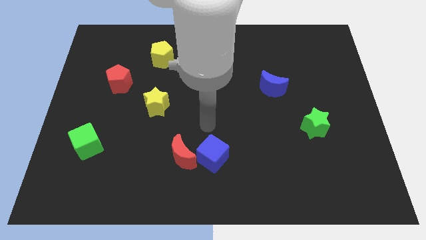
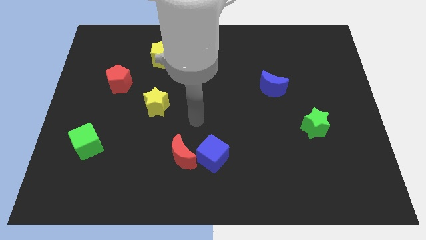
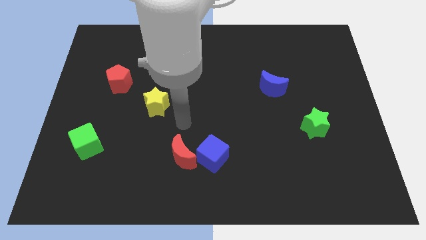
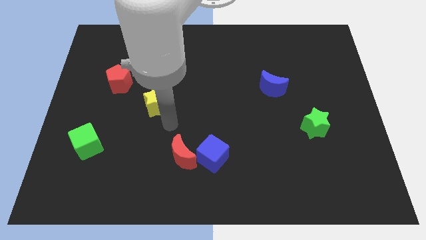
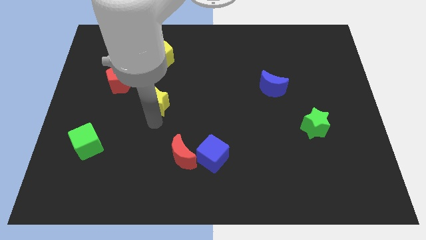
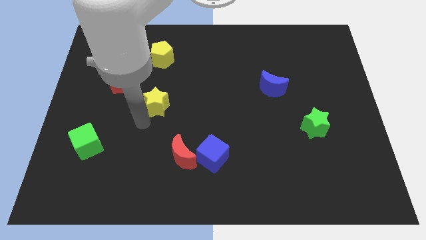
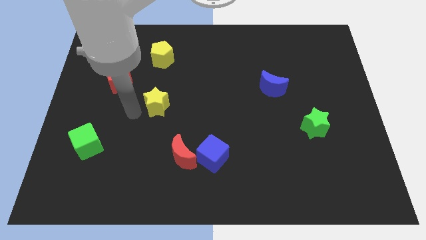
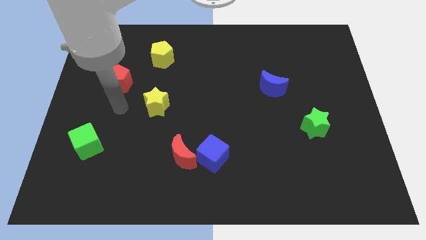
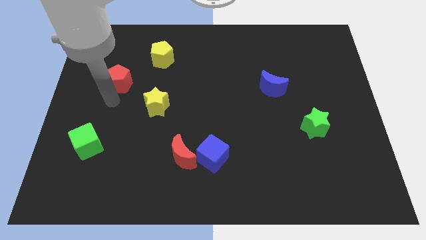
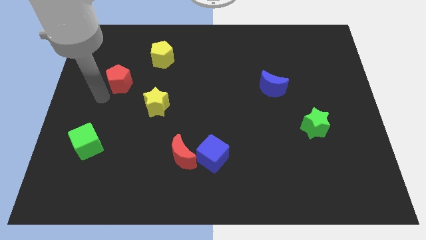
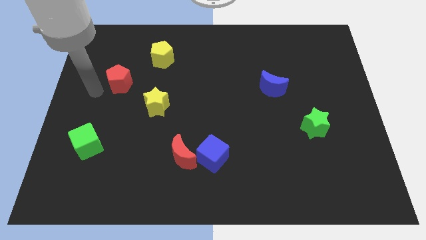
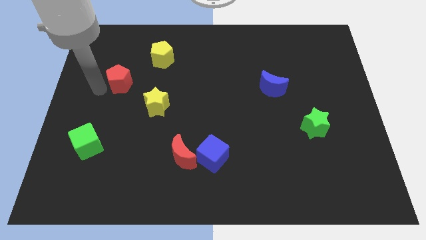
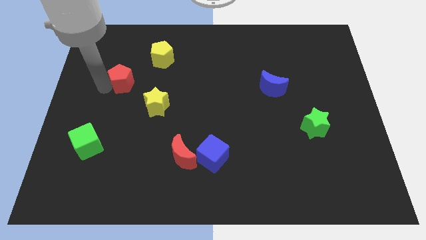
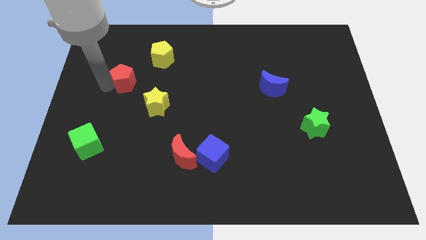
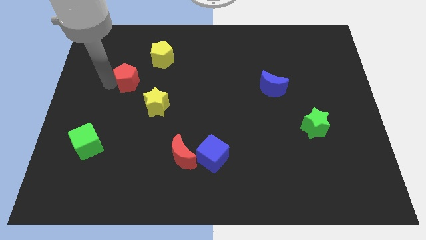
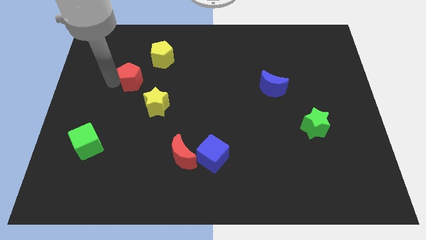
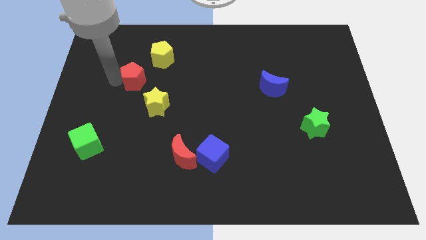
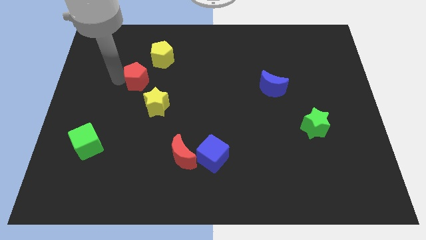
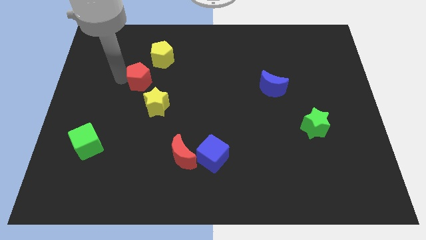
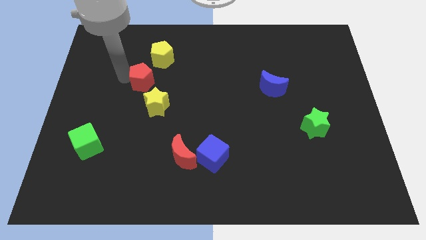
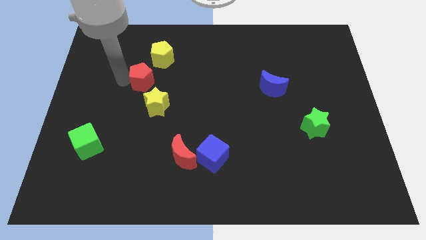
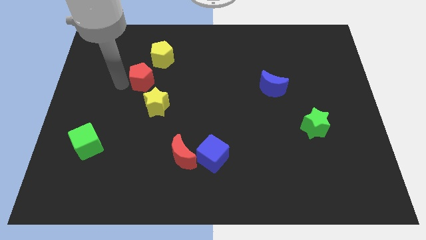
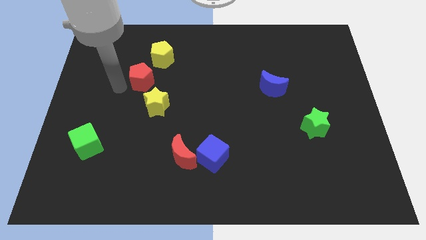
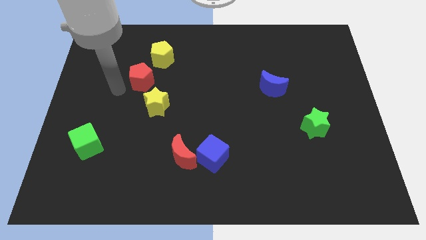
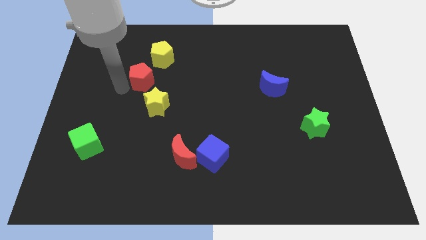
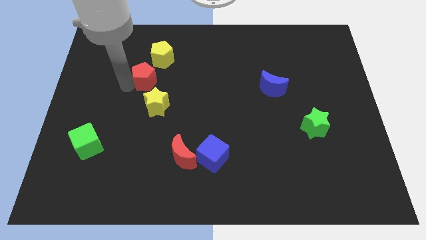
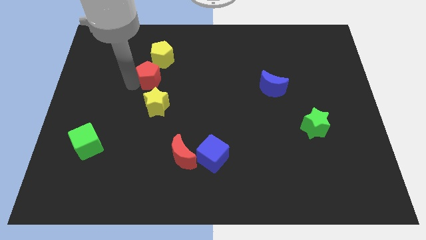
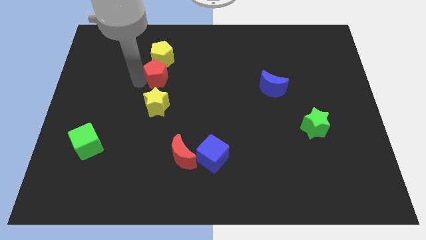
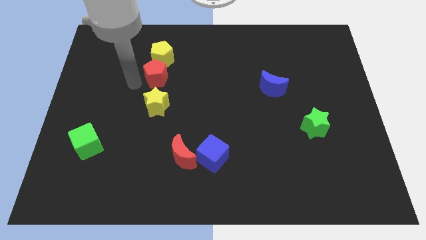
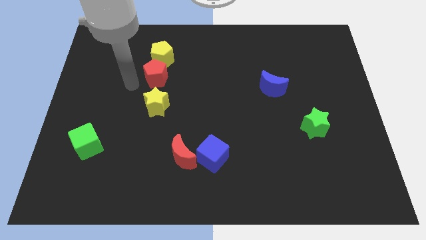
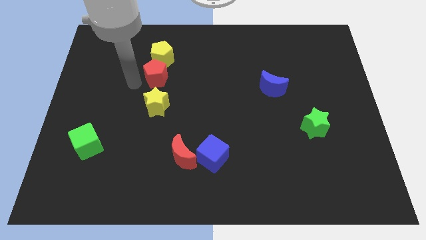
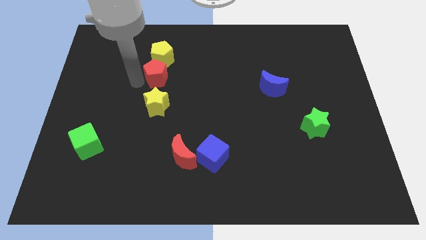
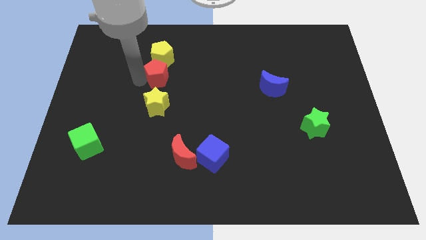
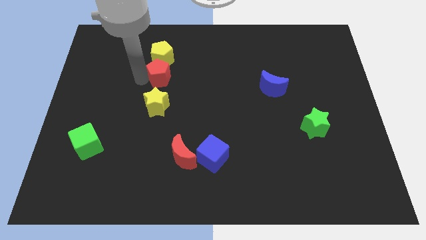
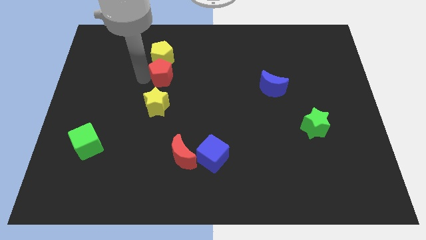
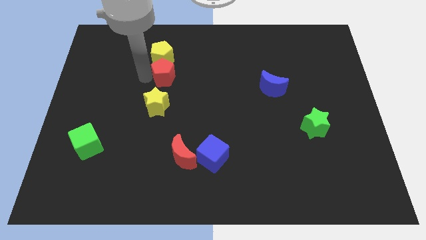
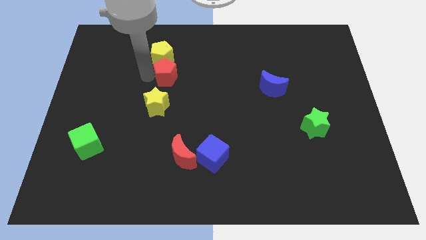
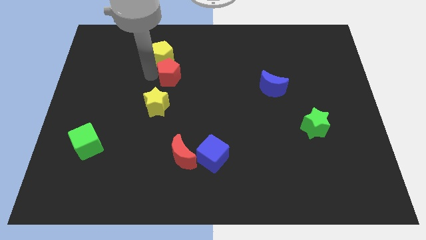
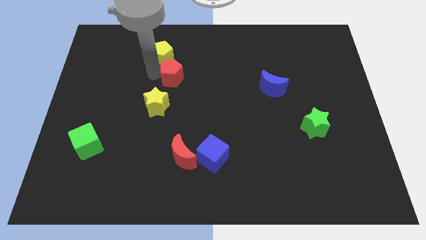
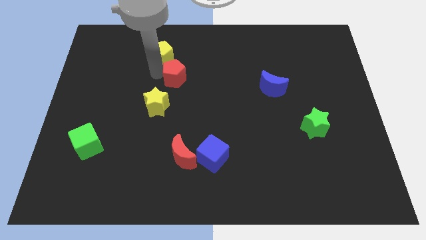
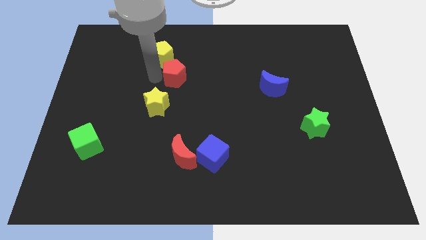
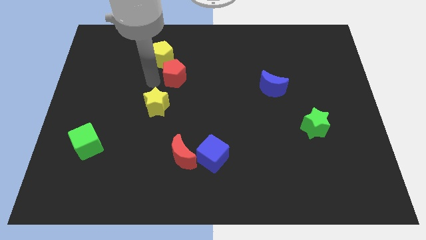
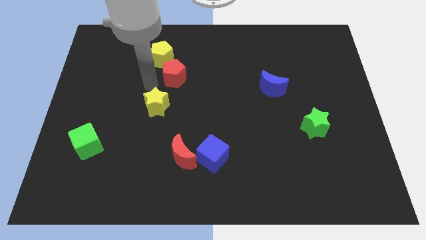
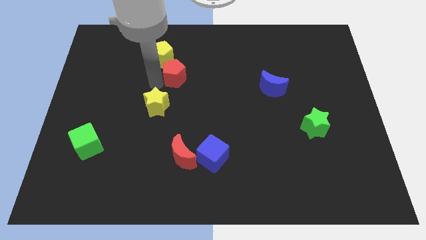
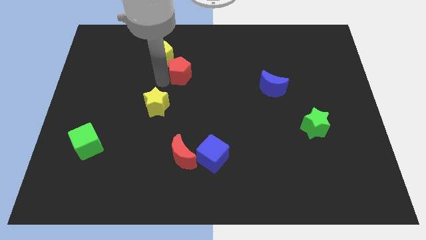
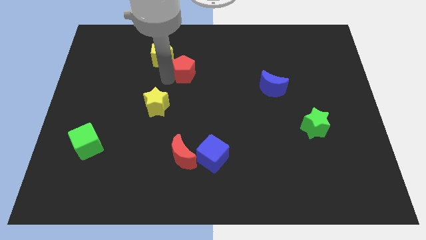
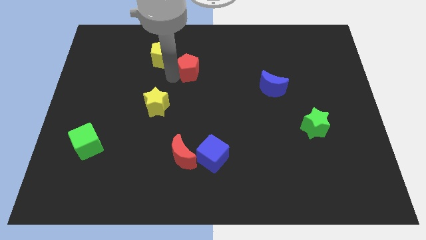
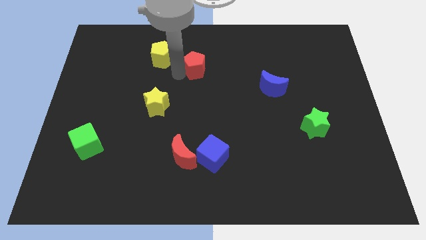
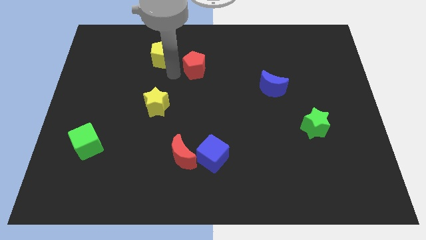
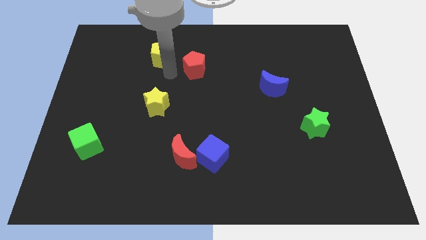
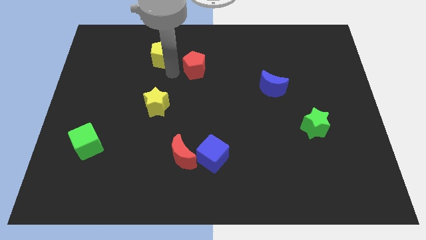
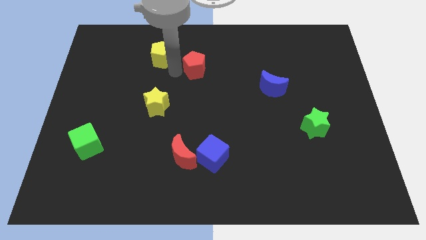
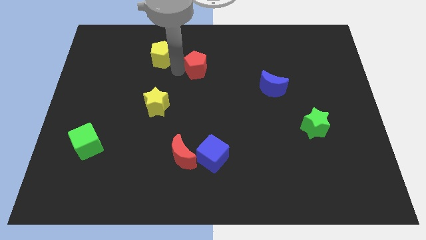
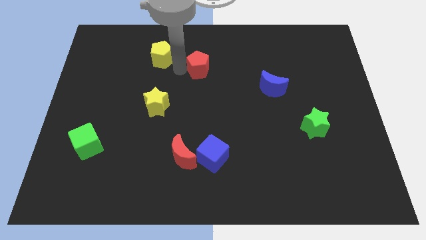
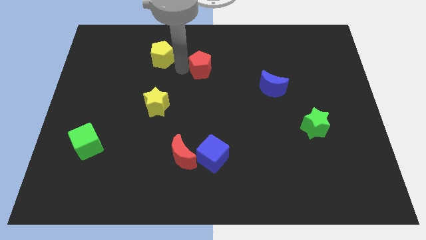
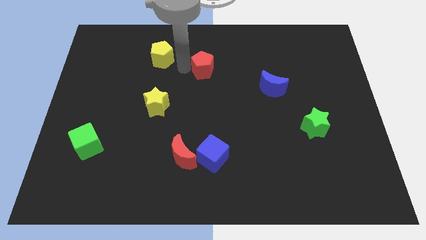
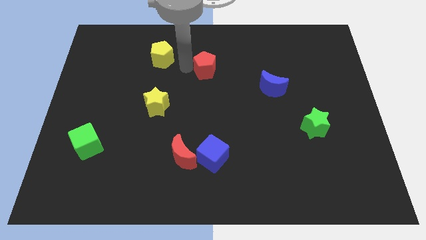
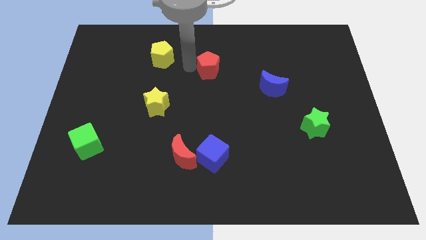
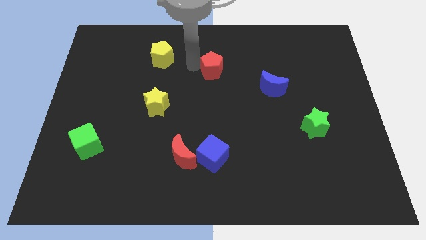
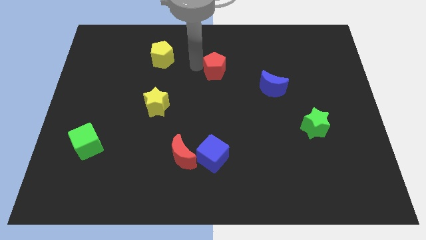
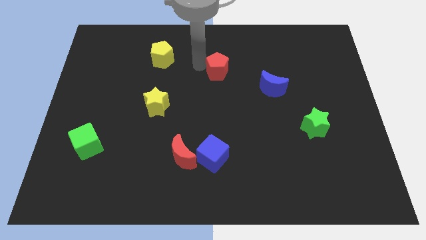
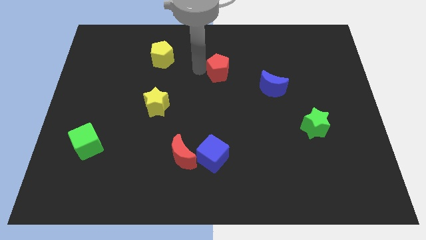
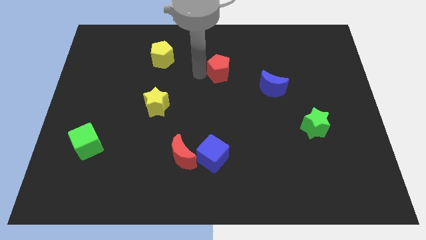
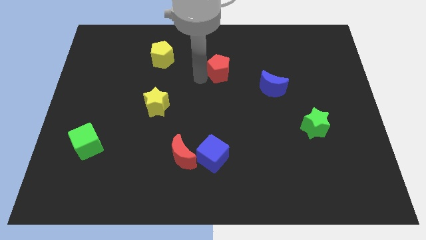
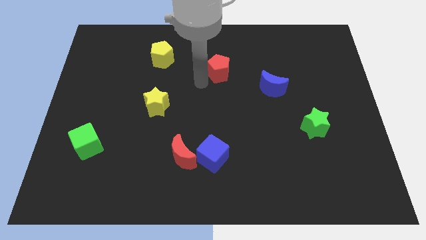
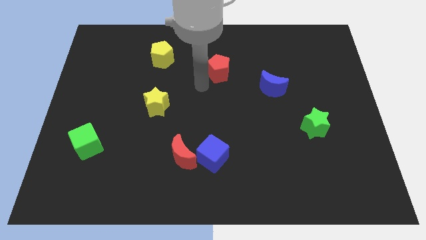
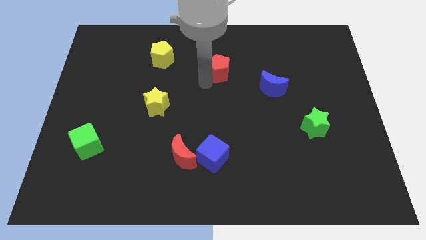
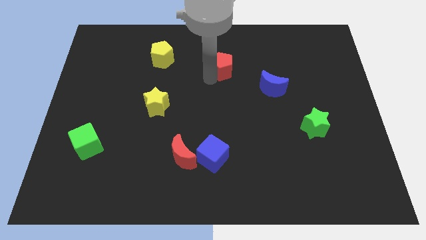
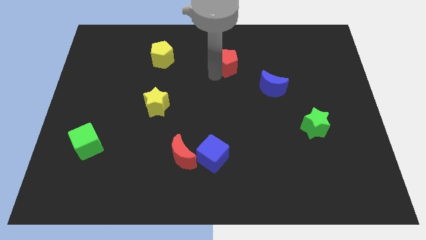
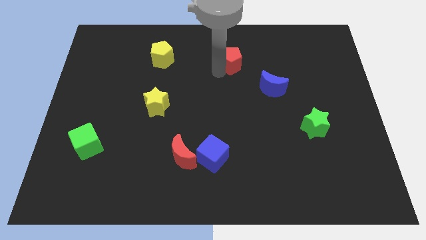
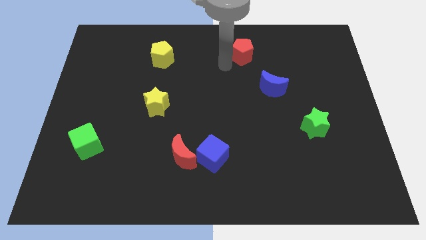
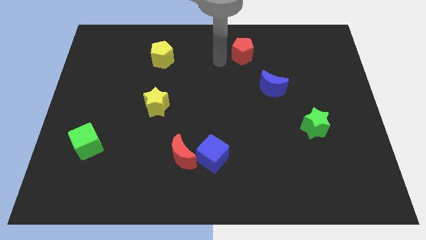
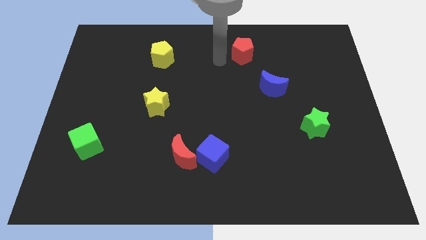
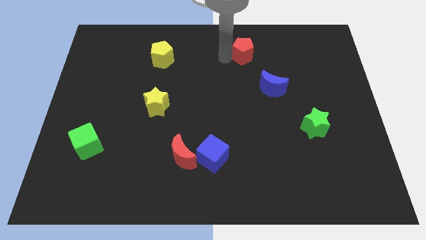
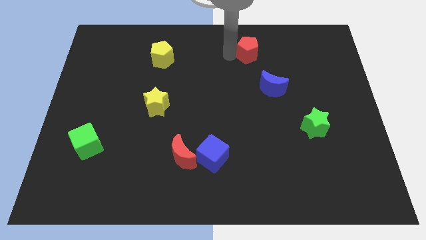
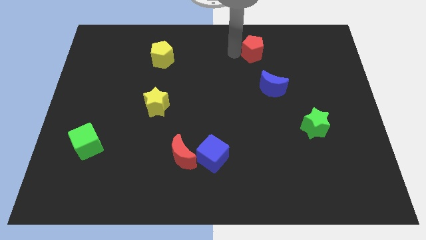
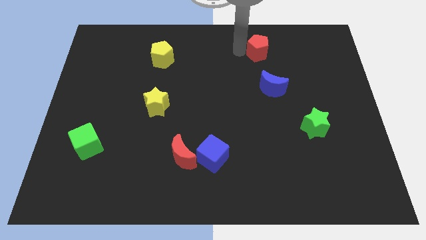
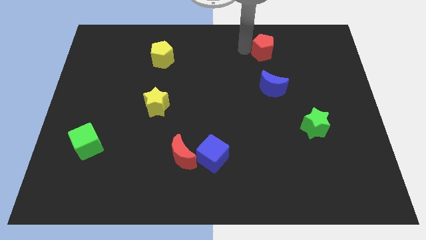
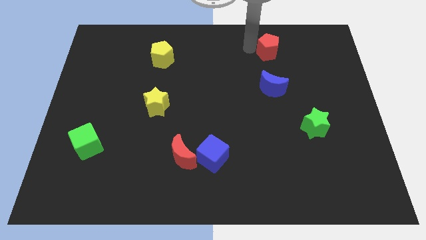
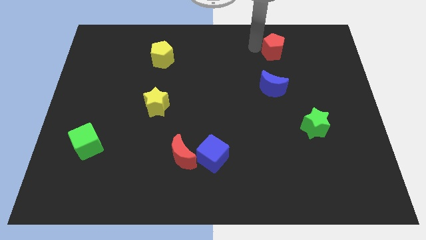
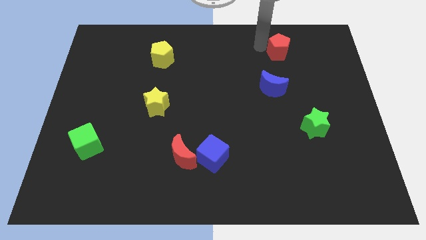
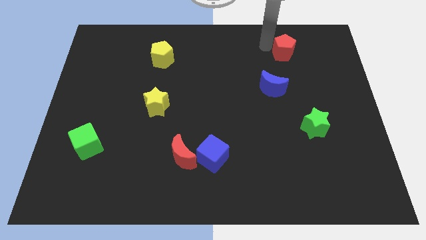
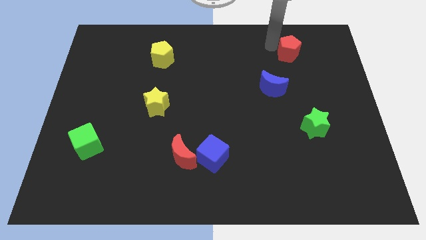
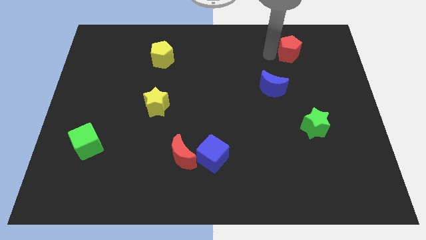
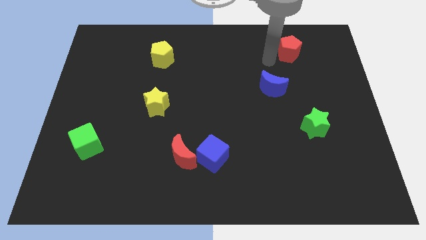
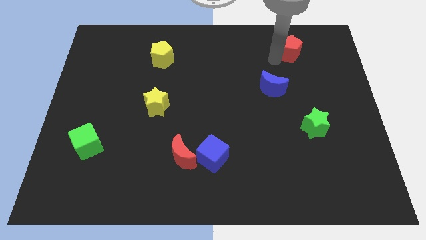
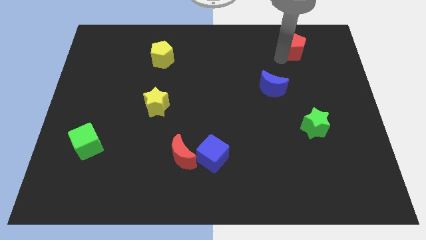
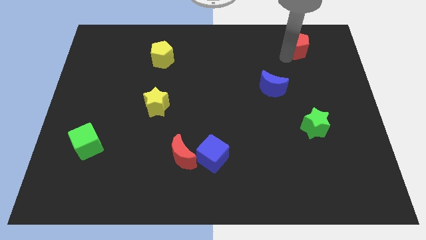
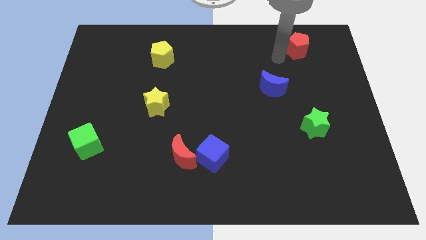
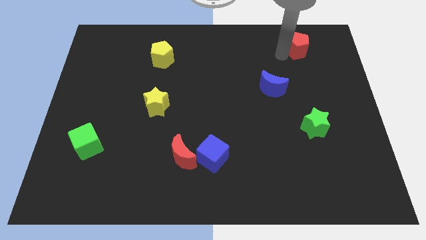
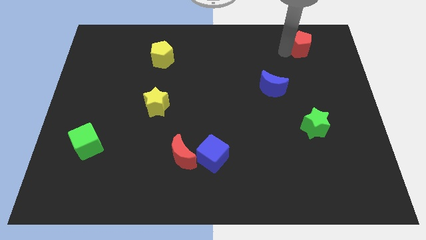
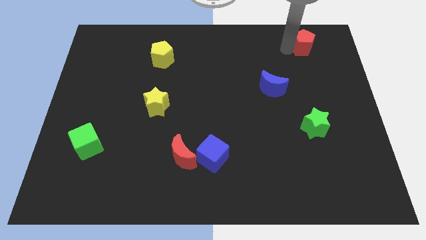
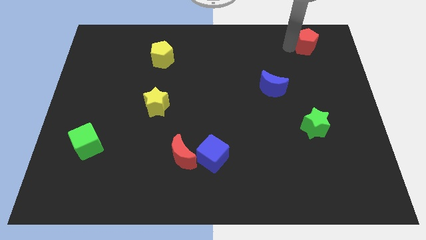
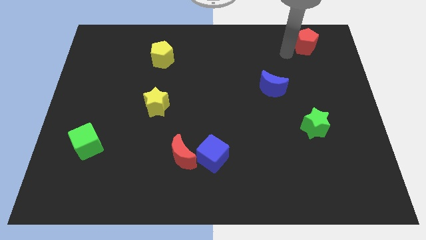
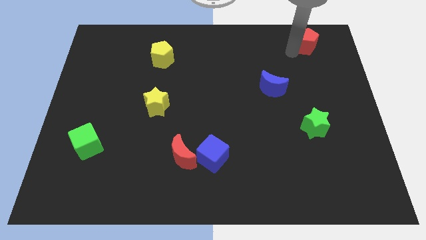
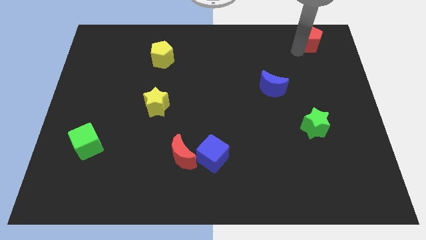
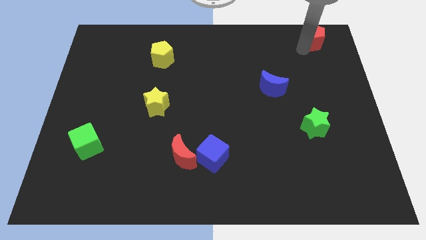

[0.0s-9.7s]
move the red pentagon to the top right
